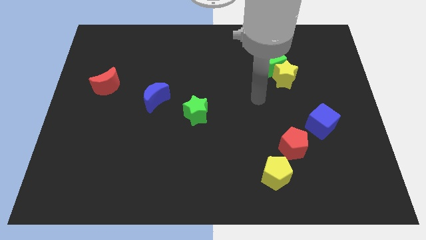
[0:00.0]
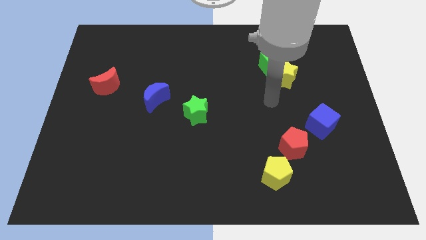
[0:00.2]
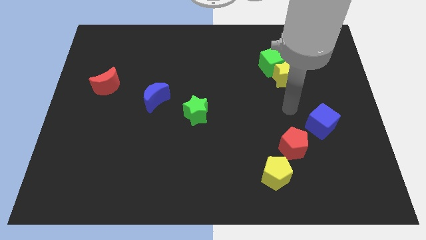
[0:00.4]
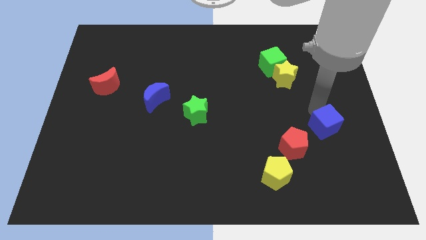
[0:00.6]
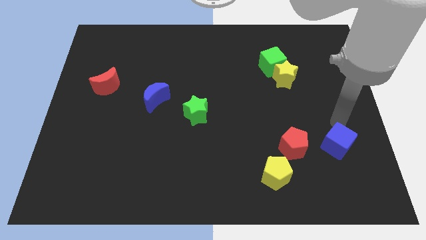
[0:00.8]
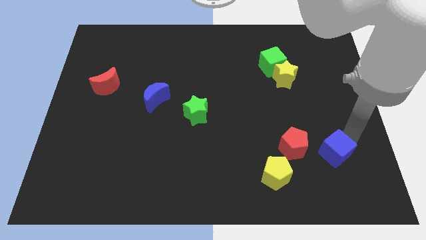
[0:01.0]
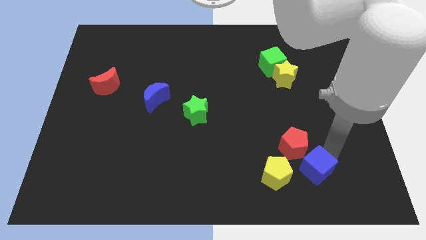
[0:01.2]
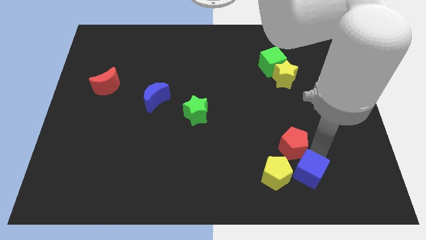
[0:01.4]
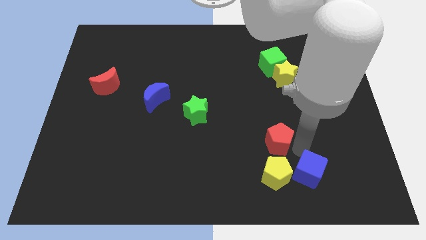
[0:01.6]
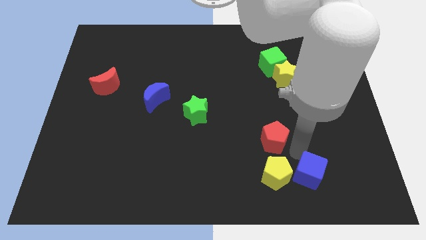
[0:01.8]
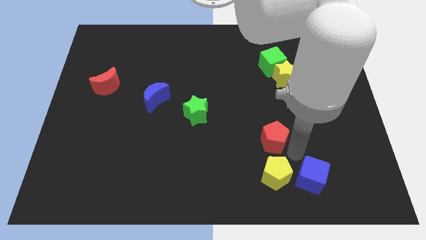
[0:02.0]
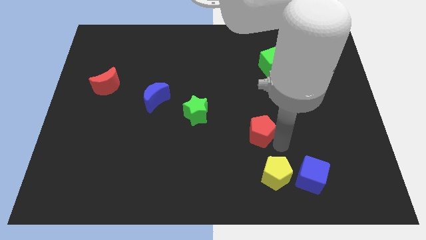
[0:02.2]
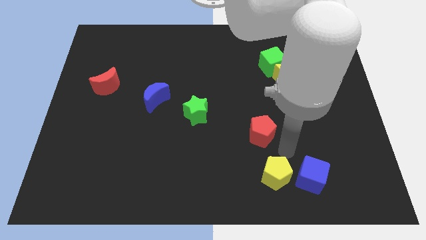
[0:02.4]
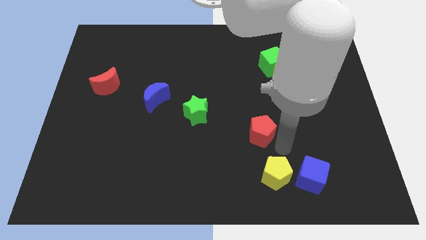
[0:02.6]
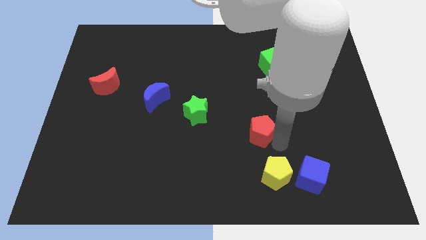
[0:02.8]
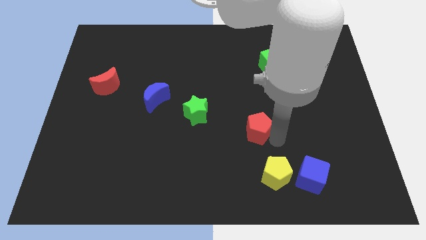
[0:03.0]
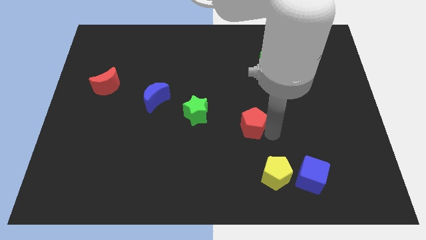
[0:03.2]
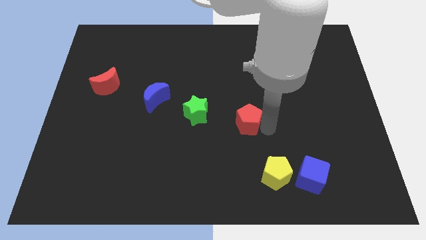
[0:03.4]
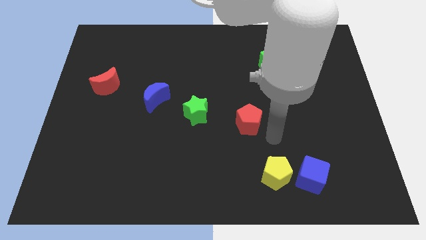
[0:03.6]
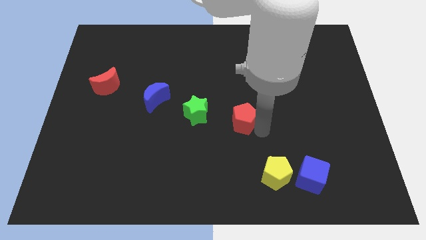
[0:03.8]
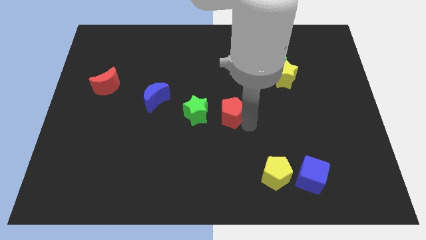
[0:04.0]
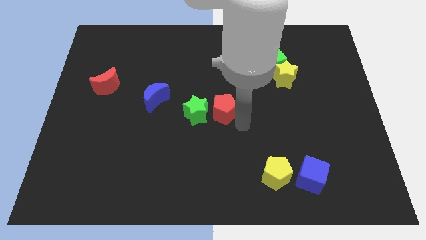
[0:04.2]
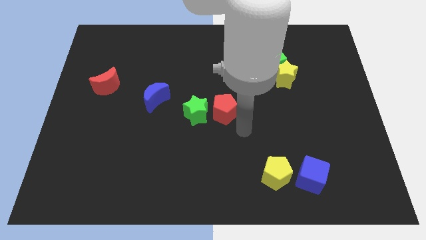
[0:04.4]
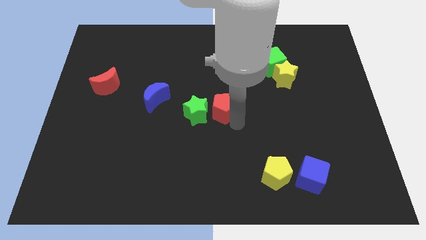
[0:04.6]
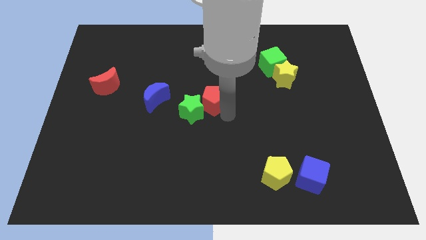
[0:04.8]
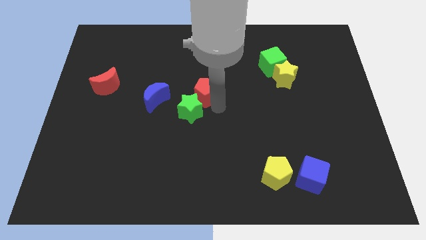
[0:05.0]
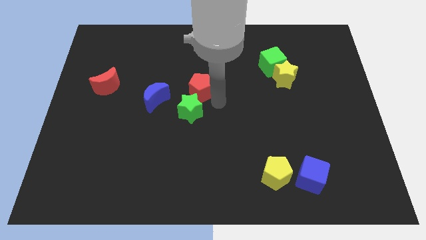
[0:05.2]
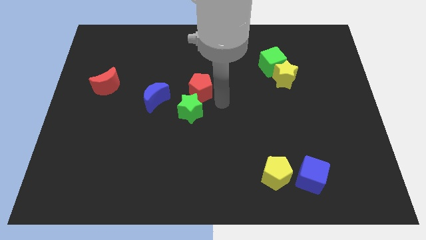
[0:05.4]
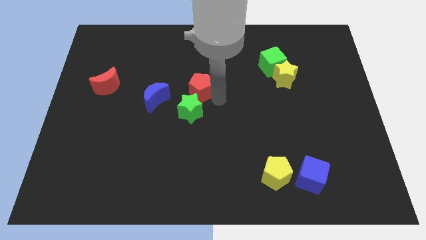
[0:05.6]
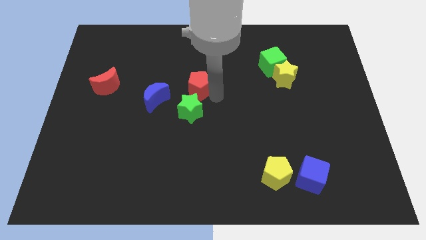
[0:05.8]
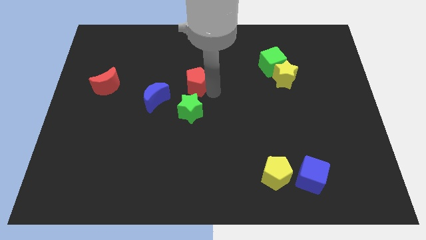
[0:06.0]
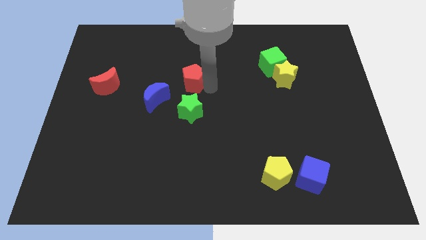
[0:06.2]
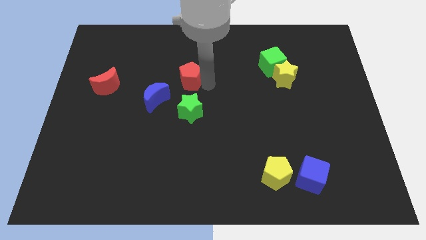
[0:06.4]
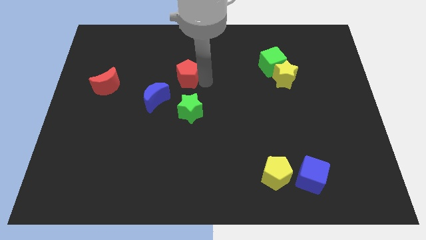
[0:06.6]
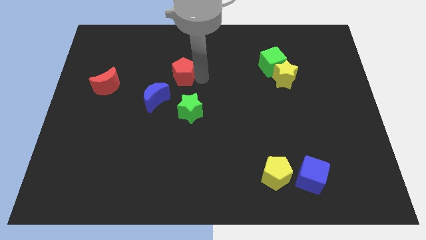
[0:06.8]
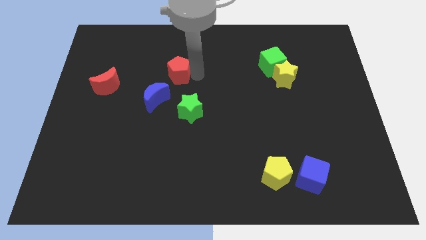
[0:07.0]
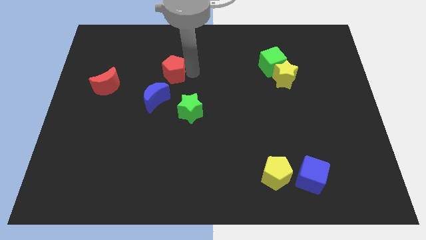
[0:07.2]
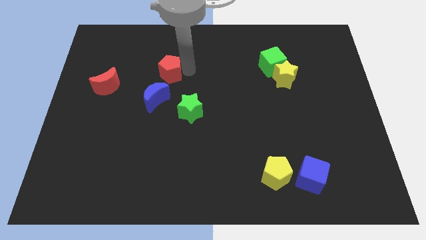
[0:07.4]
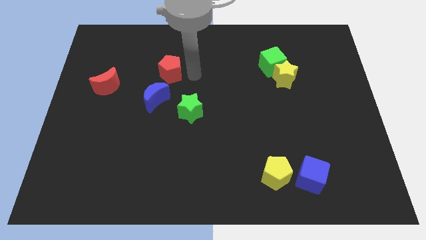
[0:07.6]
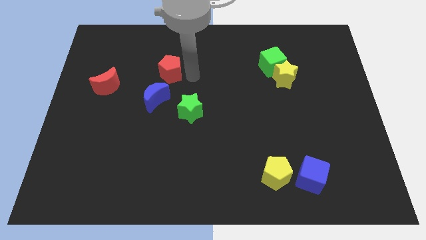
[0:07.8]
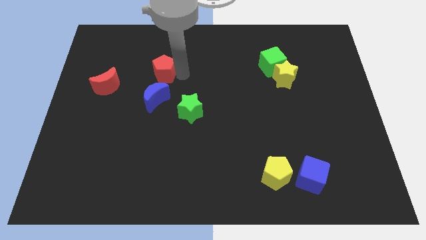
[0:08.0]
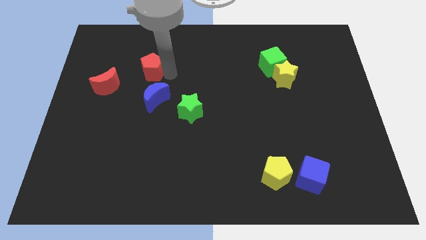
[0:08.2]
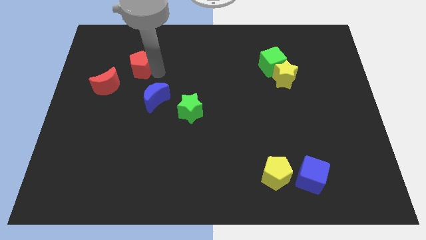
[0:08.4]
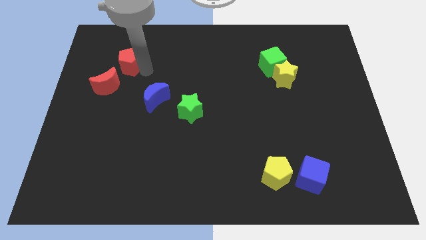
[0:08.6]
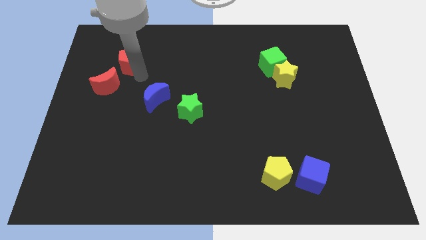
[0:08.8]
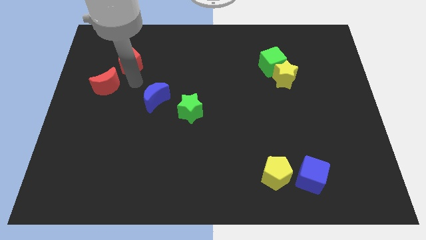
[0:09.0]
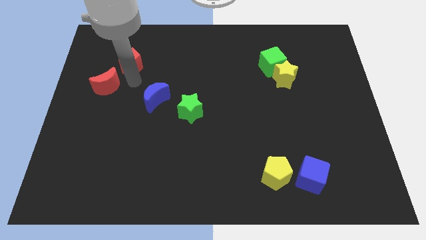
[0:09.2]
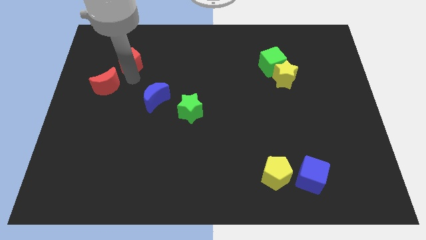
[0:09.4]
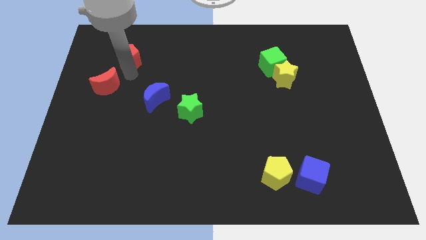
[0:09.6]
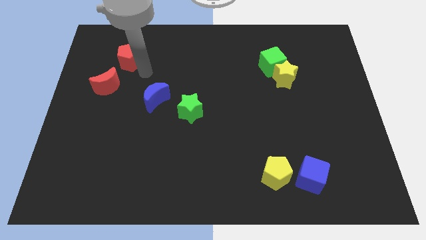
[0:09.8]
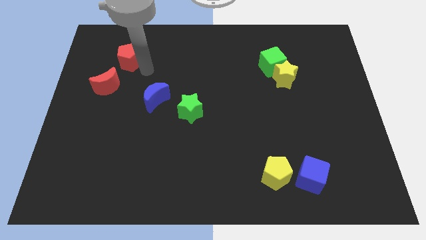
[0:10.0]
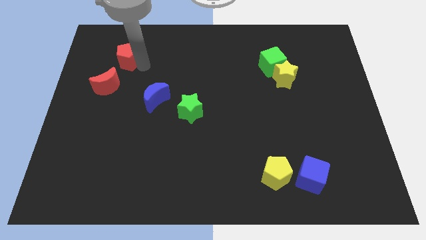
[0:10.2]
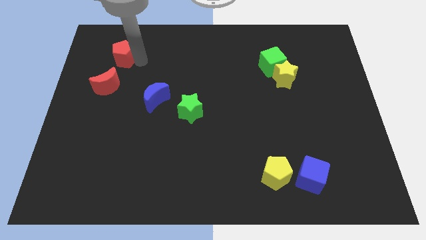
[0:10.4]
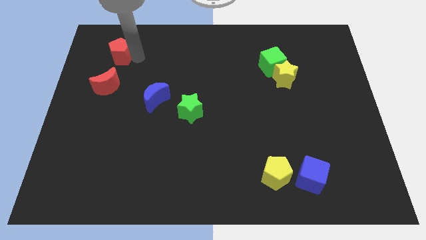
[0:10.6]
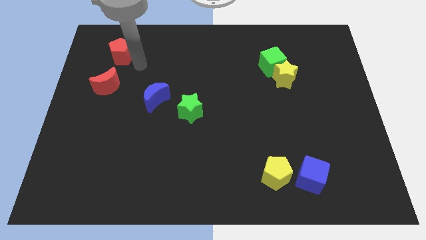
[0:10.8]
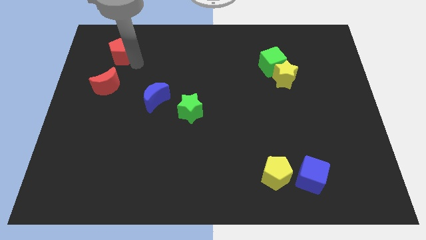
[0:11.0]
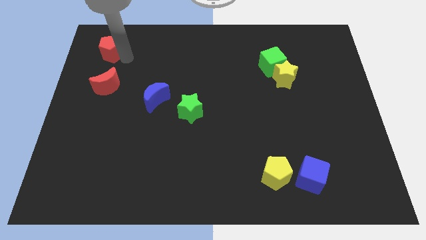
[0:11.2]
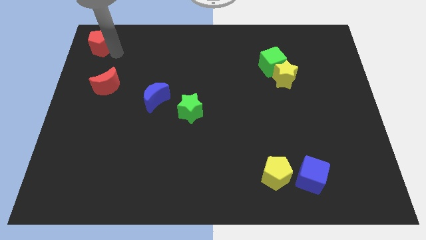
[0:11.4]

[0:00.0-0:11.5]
slide the red pentagon to the top left corner
